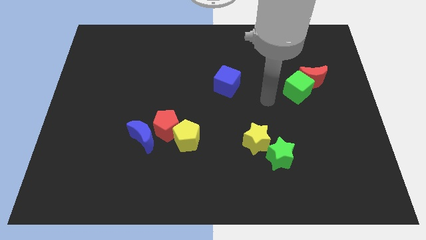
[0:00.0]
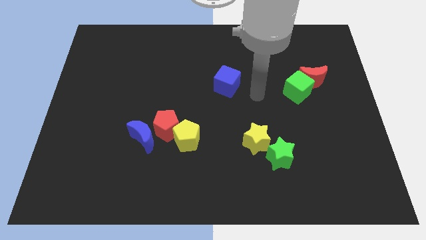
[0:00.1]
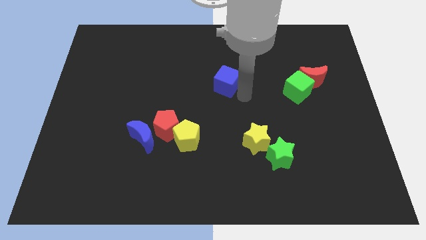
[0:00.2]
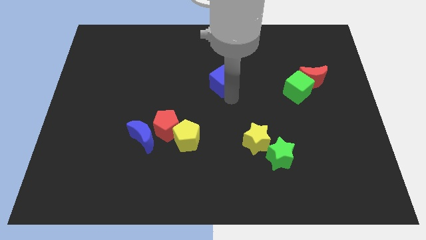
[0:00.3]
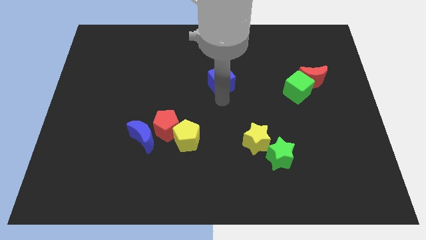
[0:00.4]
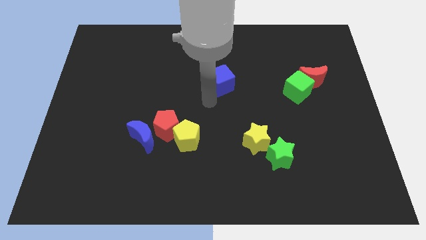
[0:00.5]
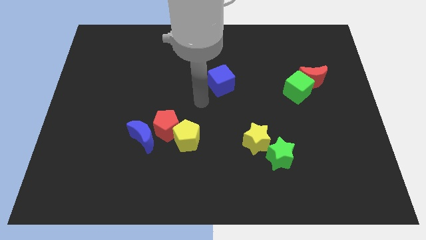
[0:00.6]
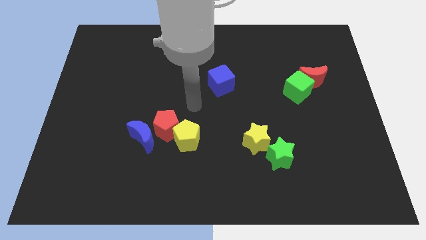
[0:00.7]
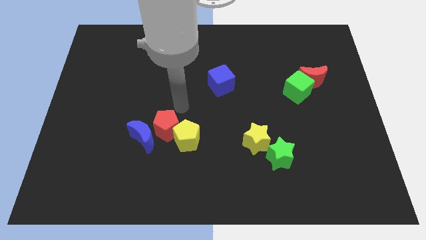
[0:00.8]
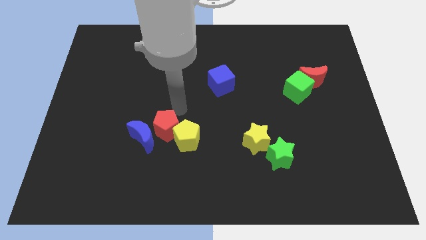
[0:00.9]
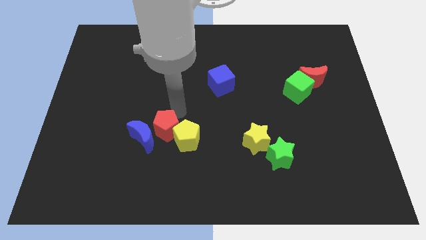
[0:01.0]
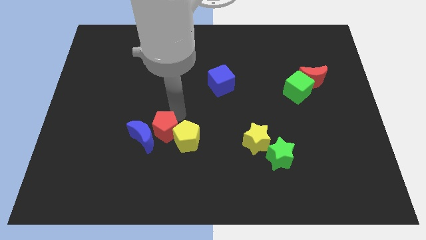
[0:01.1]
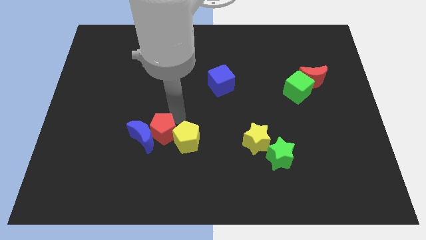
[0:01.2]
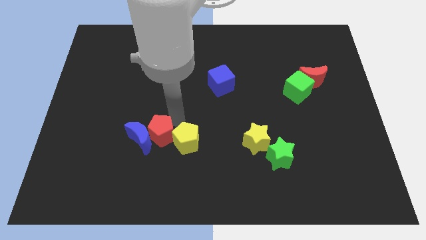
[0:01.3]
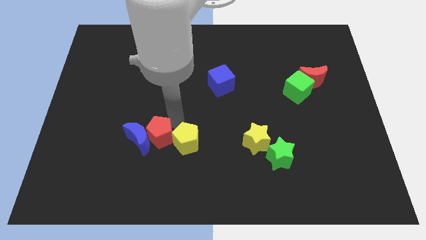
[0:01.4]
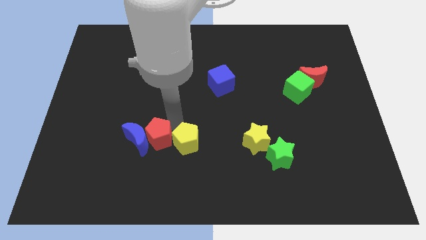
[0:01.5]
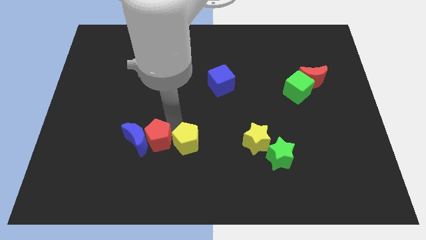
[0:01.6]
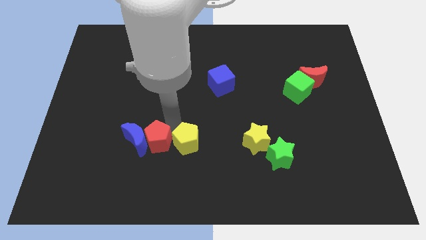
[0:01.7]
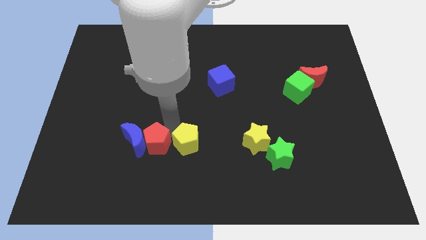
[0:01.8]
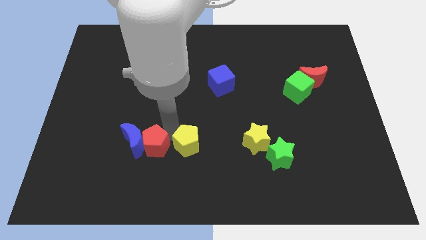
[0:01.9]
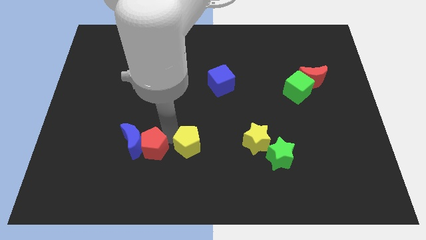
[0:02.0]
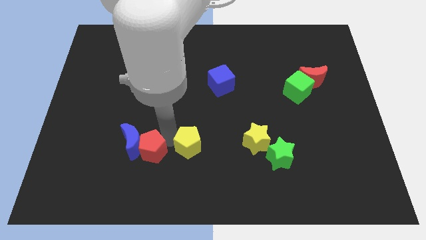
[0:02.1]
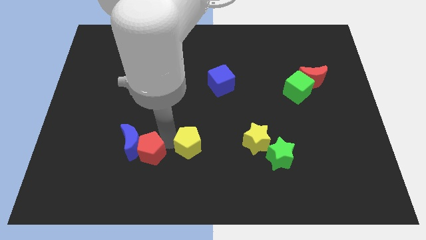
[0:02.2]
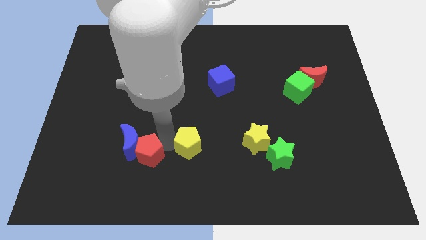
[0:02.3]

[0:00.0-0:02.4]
slide the red pentagon a little bit diagonally downwards and left

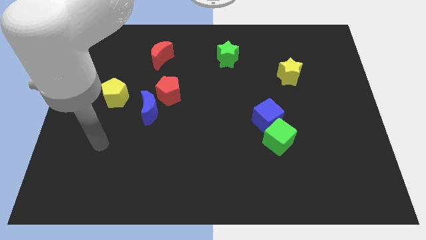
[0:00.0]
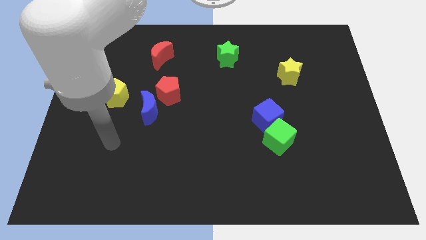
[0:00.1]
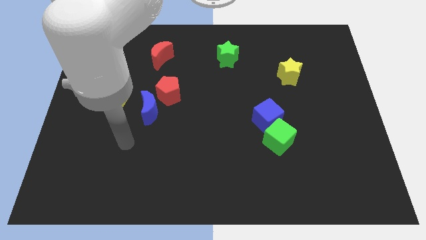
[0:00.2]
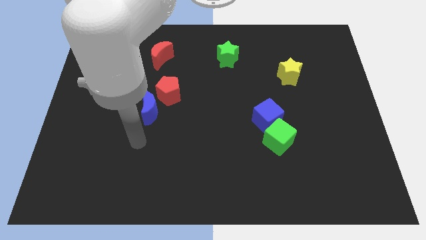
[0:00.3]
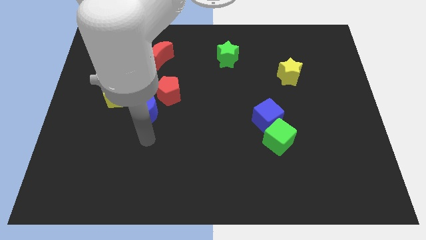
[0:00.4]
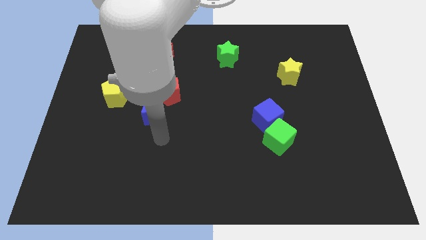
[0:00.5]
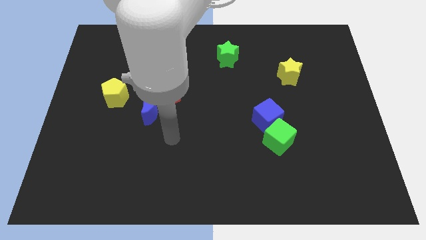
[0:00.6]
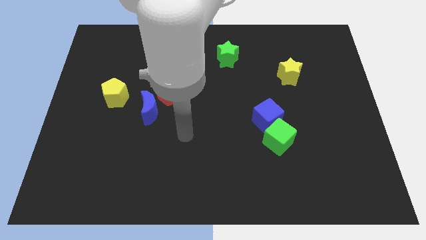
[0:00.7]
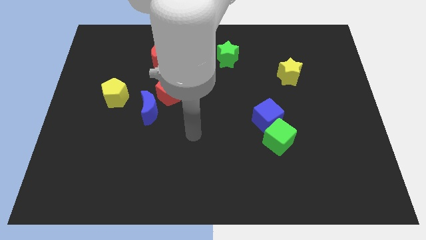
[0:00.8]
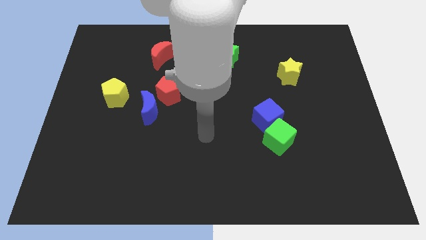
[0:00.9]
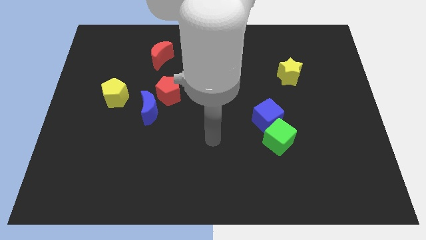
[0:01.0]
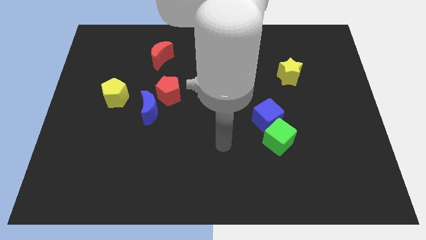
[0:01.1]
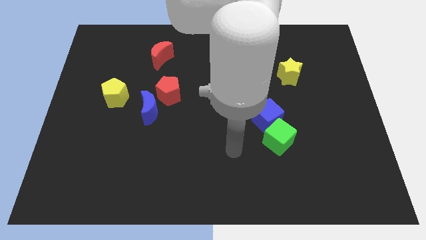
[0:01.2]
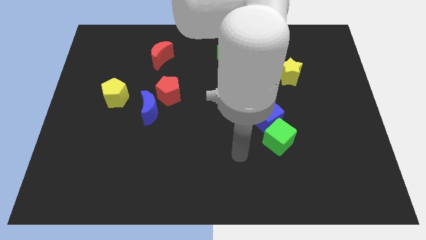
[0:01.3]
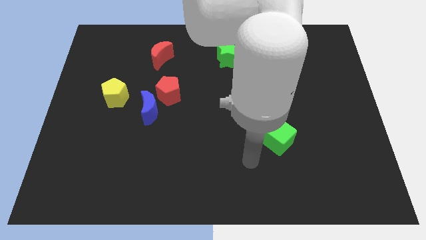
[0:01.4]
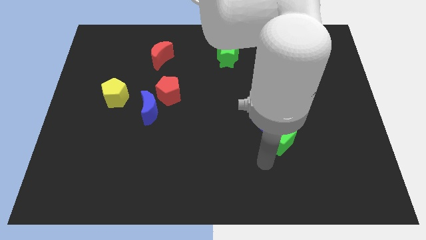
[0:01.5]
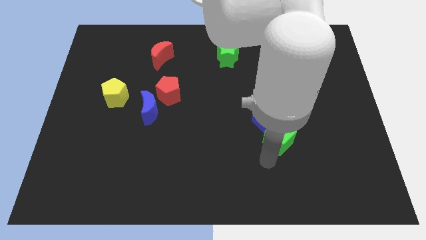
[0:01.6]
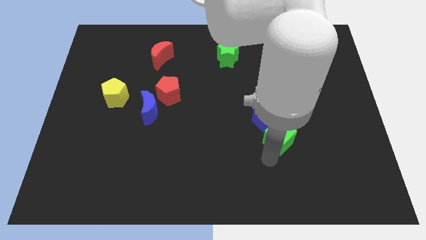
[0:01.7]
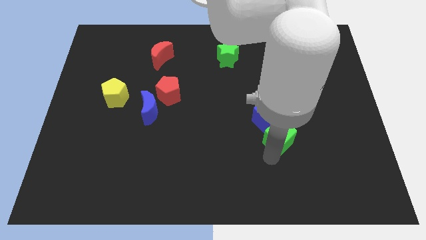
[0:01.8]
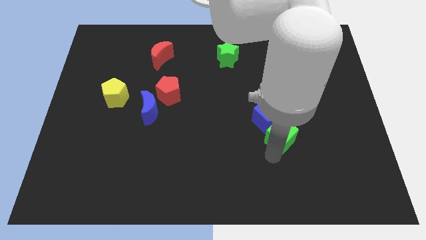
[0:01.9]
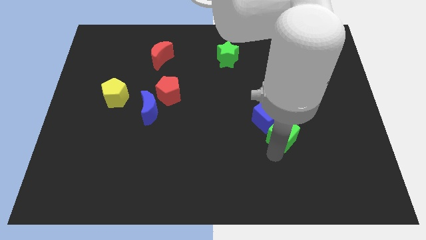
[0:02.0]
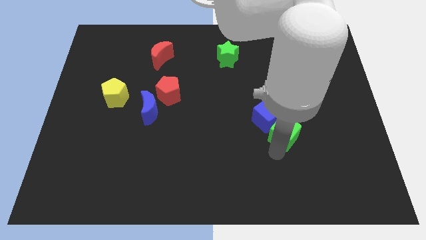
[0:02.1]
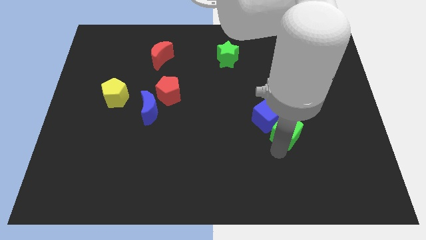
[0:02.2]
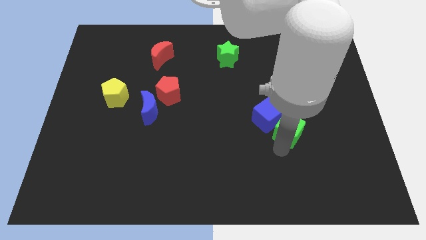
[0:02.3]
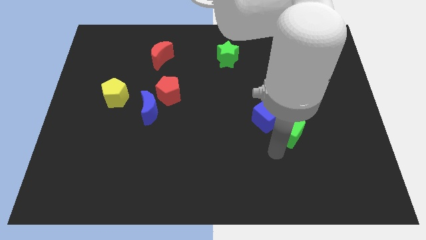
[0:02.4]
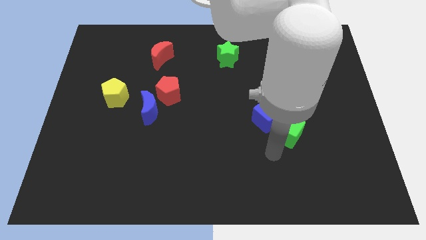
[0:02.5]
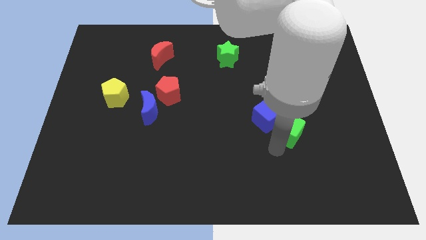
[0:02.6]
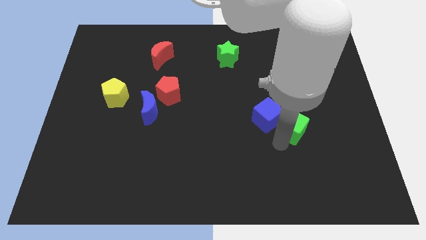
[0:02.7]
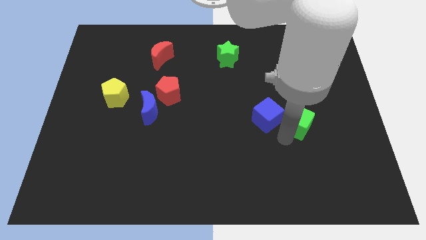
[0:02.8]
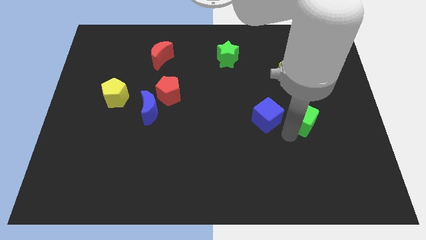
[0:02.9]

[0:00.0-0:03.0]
slightly move the green cube diagonally upwards and right

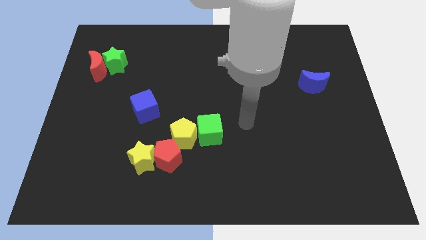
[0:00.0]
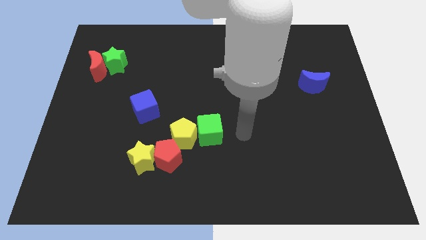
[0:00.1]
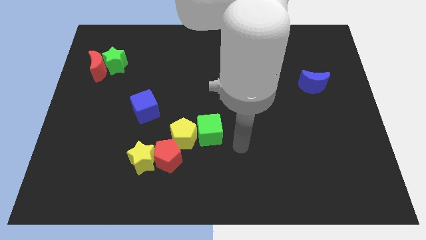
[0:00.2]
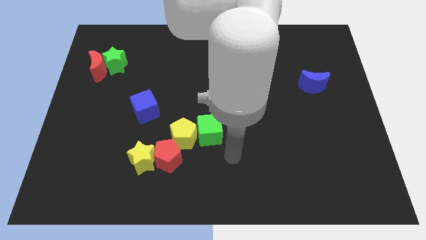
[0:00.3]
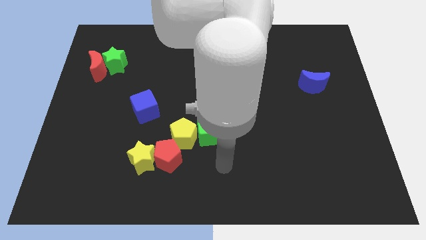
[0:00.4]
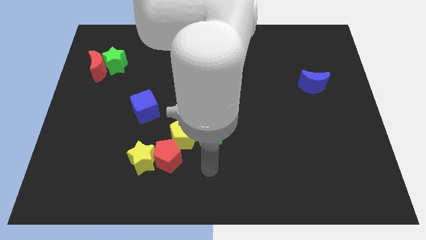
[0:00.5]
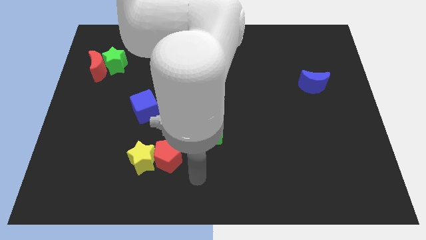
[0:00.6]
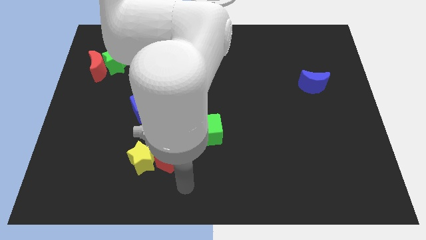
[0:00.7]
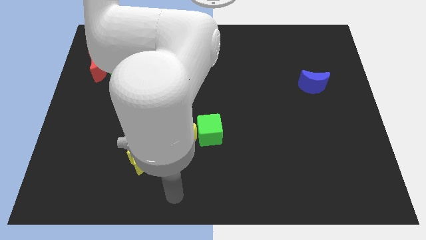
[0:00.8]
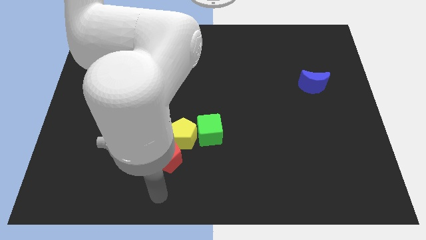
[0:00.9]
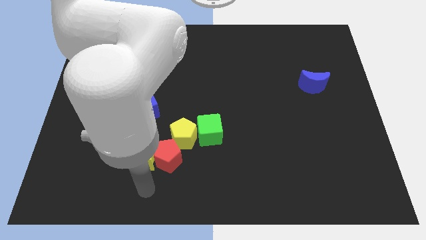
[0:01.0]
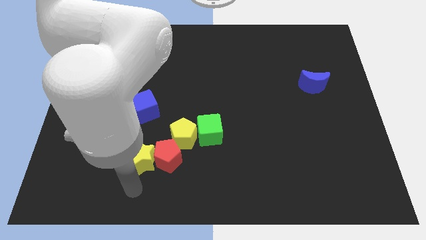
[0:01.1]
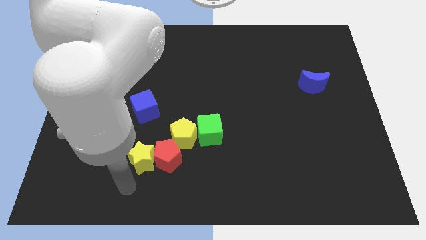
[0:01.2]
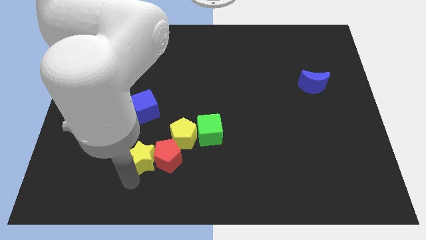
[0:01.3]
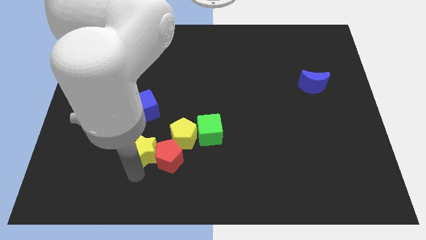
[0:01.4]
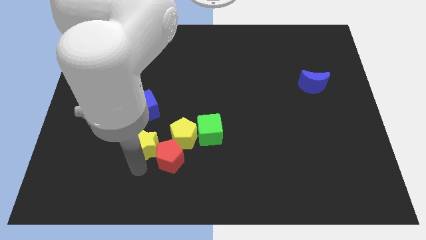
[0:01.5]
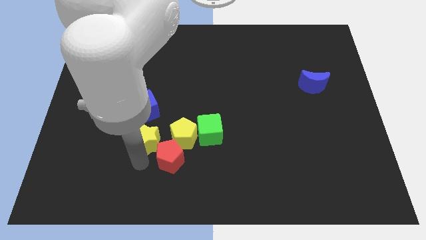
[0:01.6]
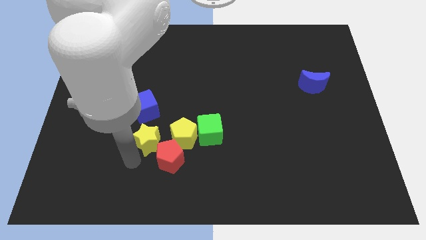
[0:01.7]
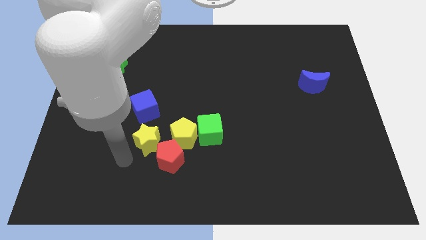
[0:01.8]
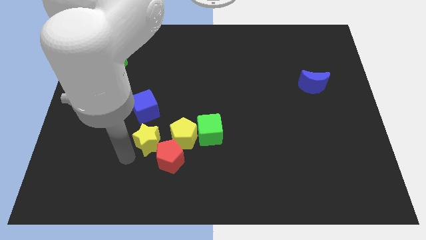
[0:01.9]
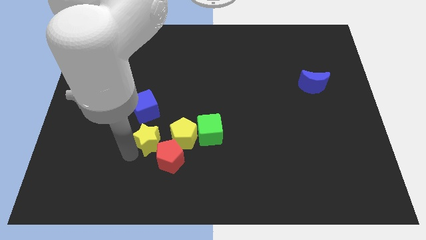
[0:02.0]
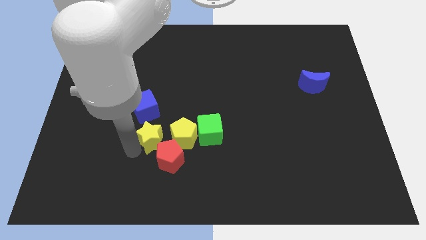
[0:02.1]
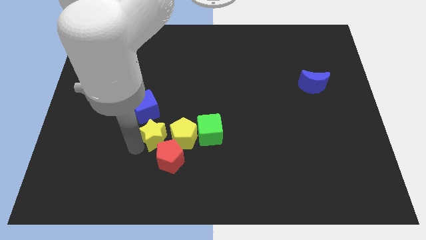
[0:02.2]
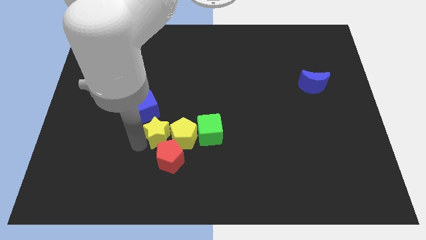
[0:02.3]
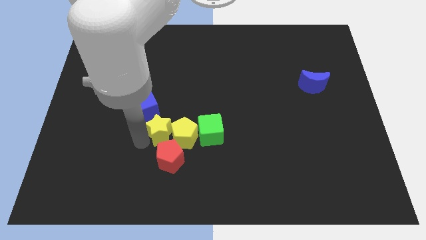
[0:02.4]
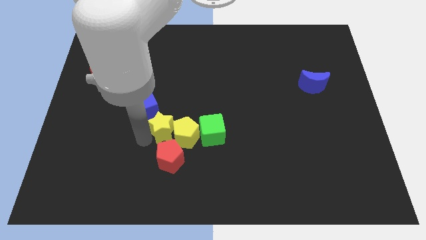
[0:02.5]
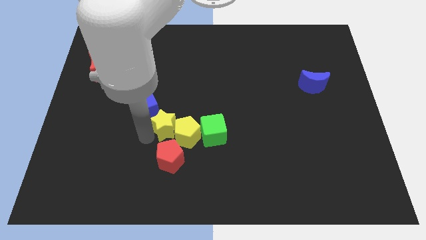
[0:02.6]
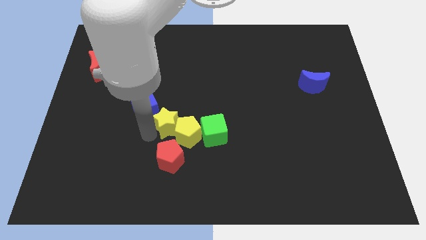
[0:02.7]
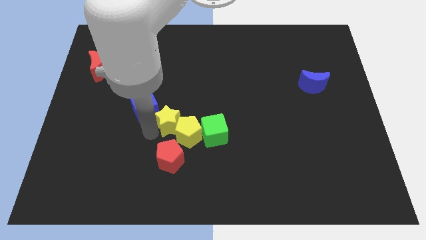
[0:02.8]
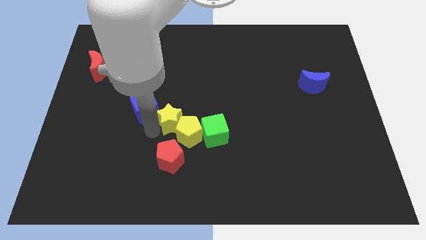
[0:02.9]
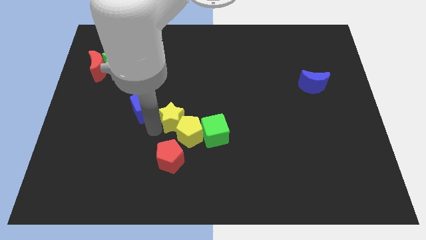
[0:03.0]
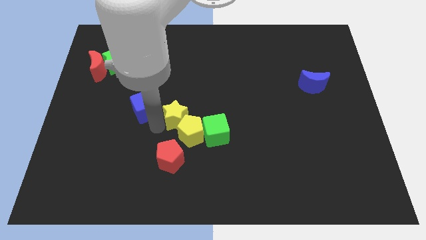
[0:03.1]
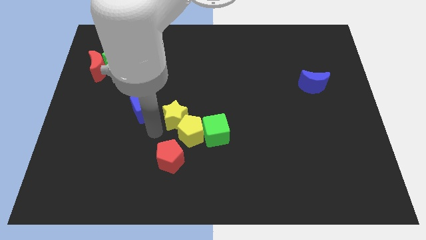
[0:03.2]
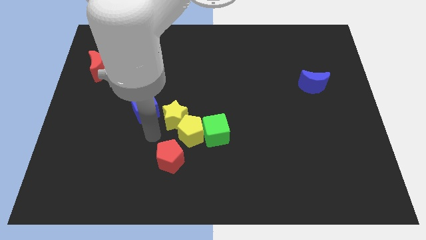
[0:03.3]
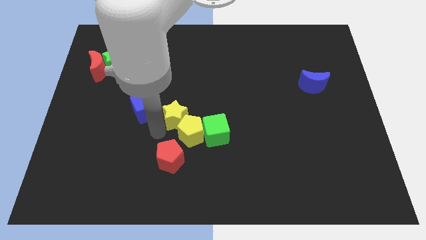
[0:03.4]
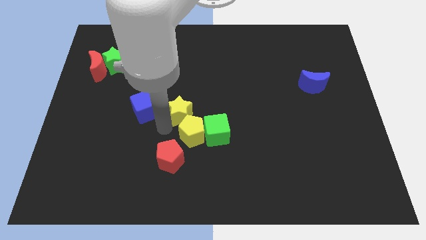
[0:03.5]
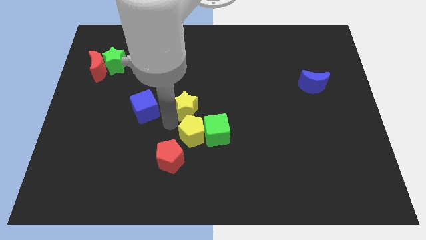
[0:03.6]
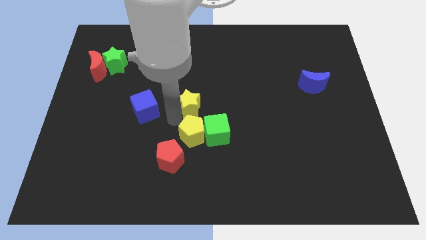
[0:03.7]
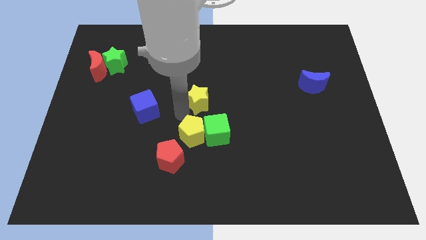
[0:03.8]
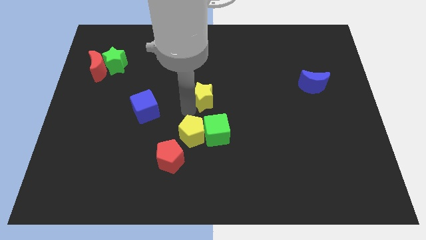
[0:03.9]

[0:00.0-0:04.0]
move the yellow star up and then right
